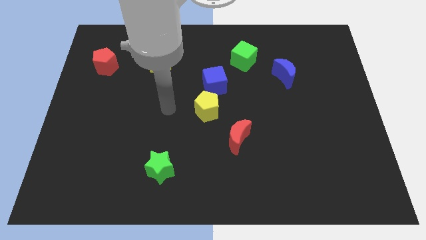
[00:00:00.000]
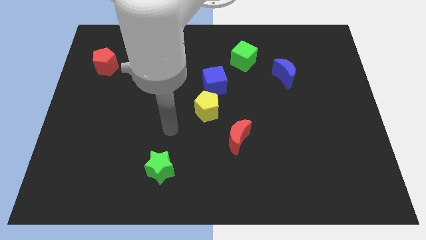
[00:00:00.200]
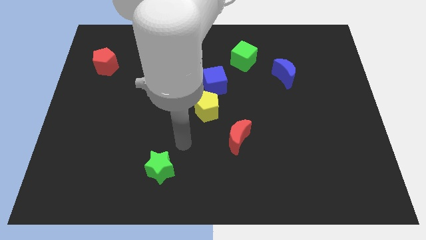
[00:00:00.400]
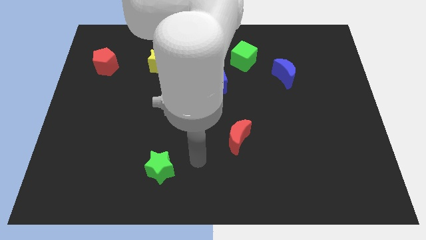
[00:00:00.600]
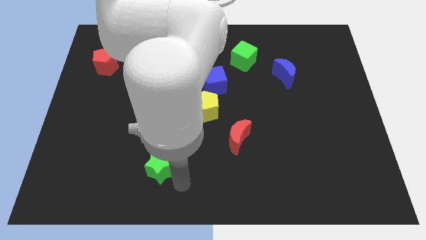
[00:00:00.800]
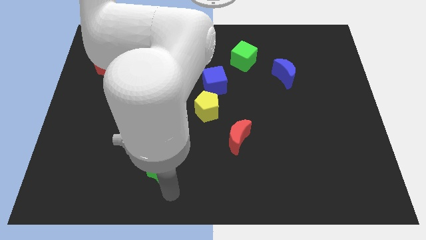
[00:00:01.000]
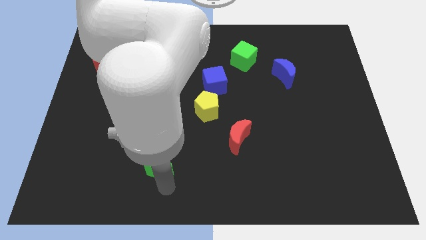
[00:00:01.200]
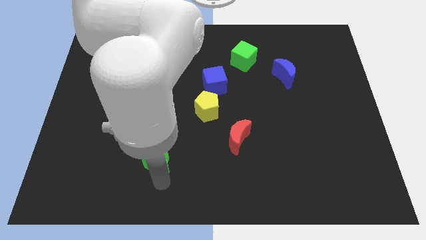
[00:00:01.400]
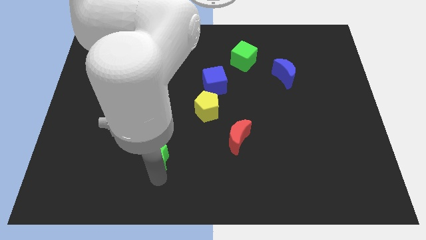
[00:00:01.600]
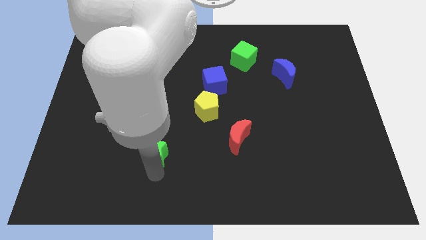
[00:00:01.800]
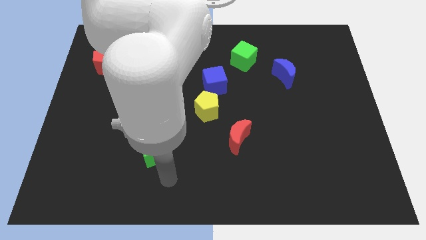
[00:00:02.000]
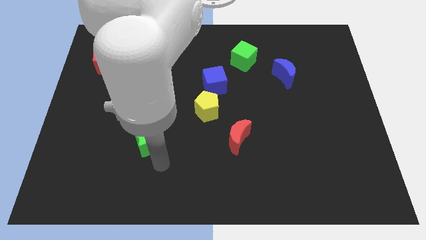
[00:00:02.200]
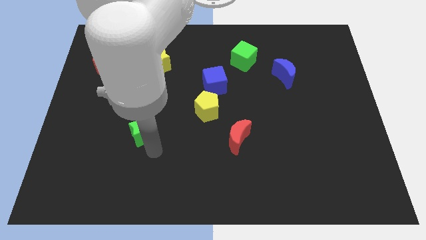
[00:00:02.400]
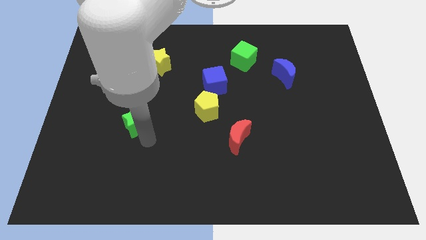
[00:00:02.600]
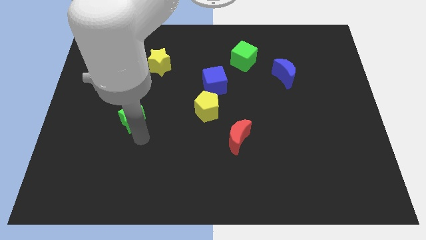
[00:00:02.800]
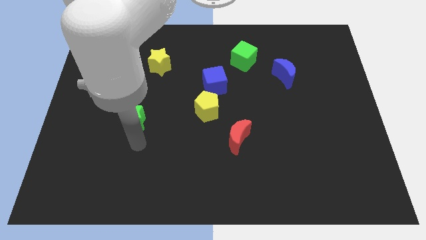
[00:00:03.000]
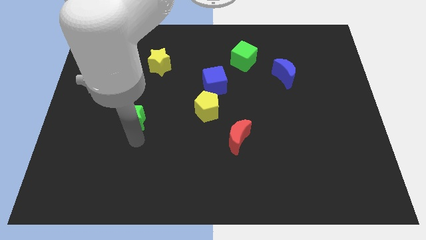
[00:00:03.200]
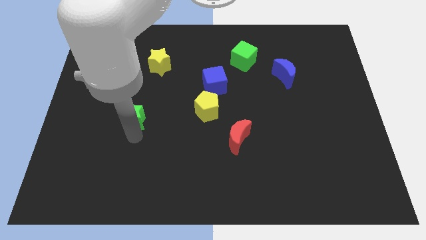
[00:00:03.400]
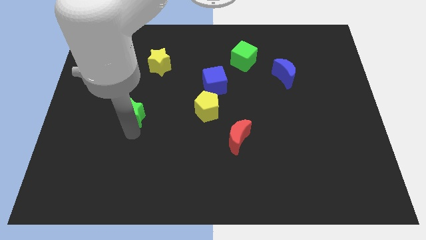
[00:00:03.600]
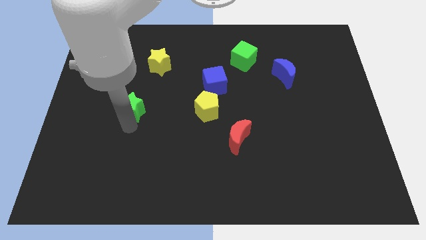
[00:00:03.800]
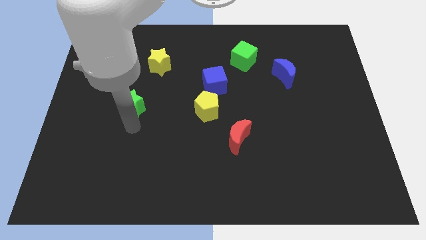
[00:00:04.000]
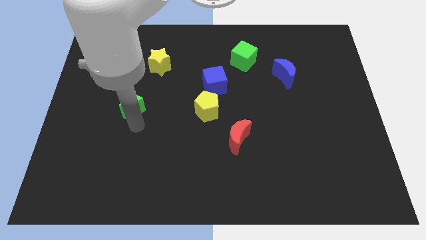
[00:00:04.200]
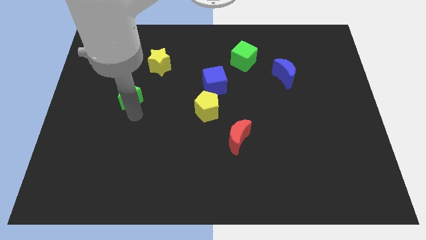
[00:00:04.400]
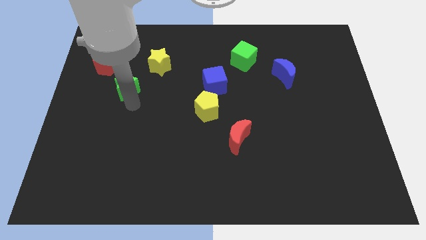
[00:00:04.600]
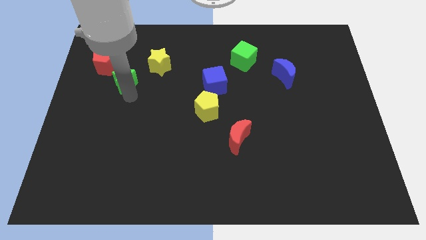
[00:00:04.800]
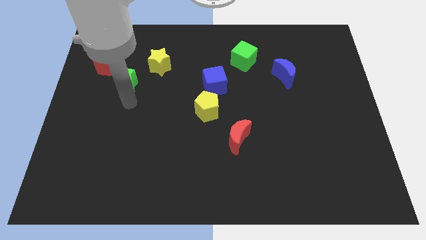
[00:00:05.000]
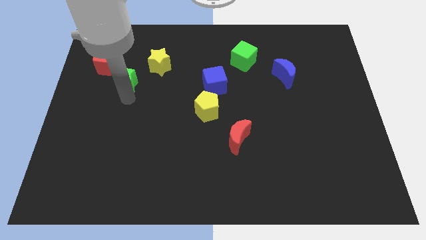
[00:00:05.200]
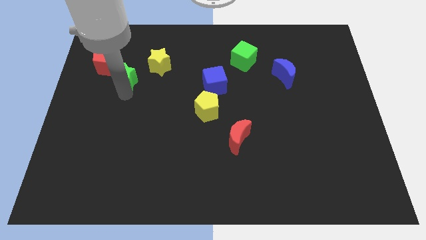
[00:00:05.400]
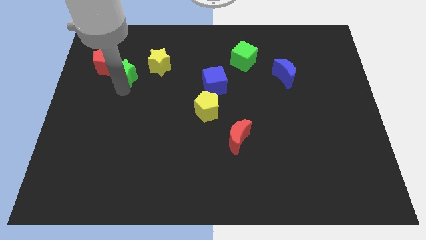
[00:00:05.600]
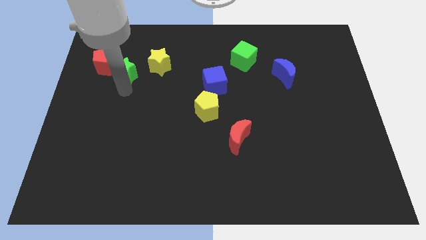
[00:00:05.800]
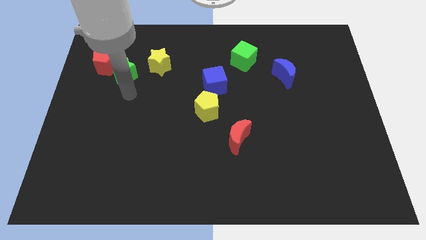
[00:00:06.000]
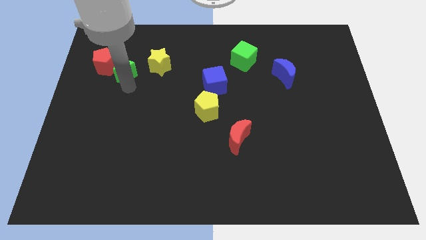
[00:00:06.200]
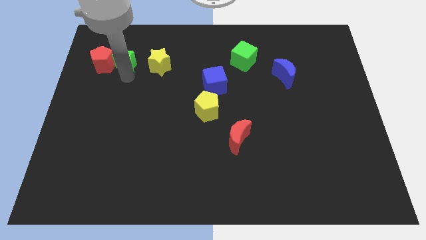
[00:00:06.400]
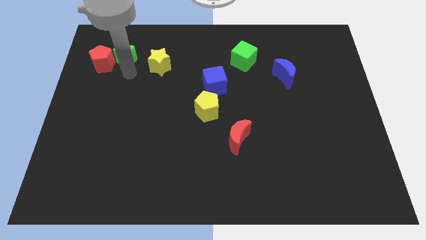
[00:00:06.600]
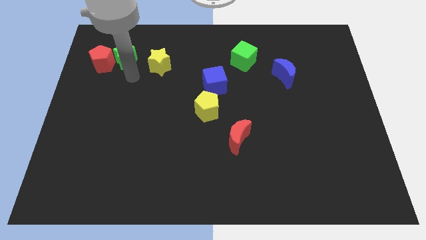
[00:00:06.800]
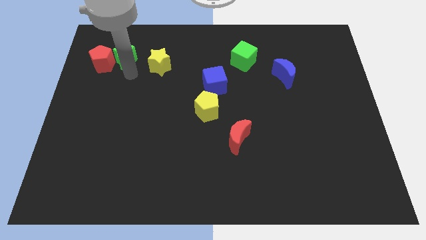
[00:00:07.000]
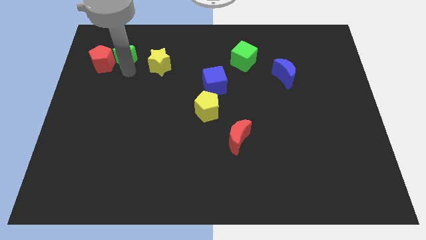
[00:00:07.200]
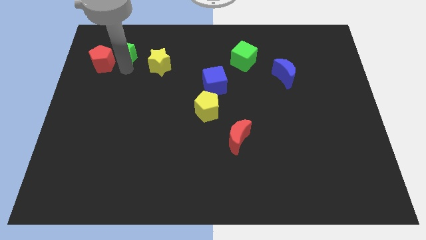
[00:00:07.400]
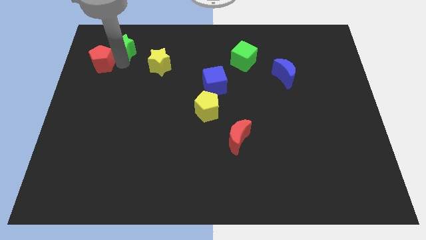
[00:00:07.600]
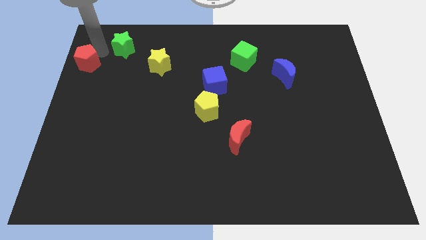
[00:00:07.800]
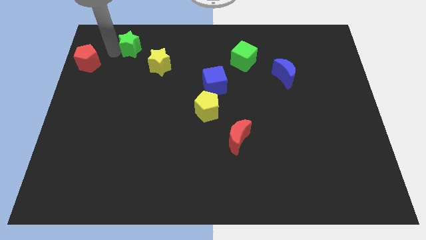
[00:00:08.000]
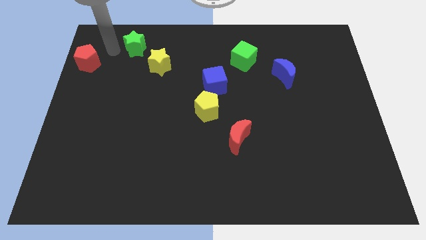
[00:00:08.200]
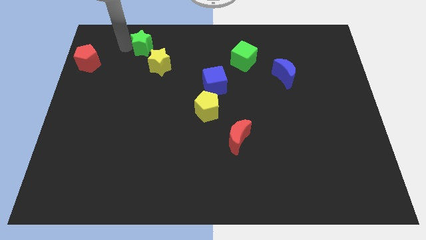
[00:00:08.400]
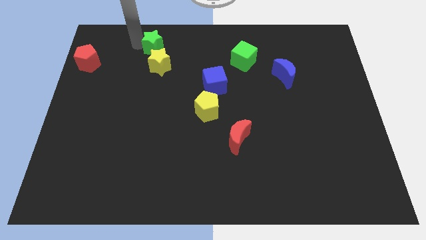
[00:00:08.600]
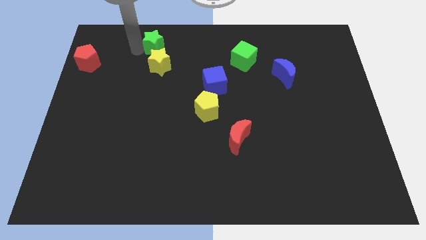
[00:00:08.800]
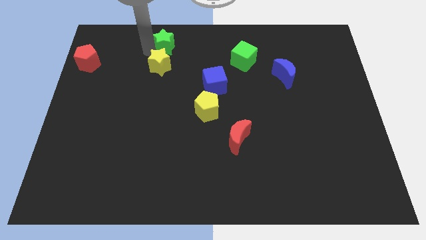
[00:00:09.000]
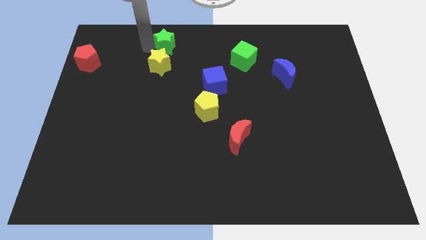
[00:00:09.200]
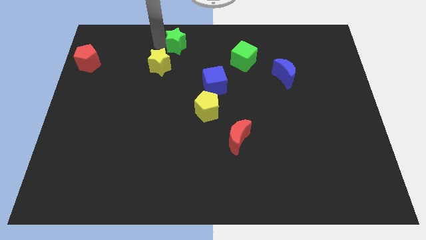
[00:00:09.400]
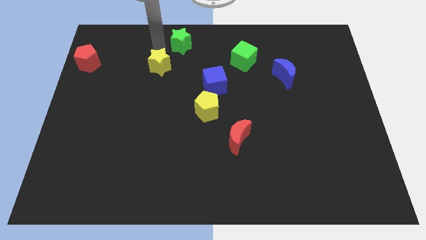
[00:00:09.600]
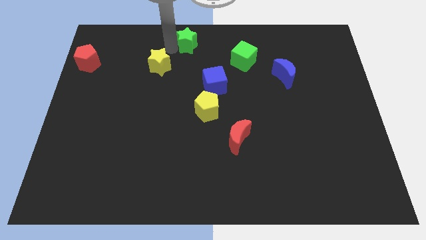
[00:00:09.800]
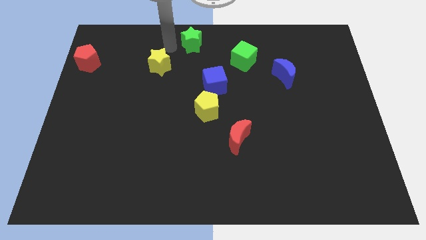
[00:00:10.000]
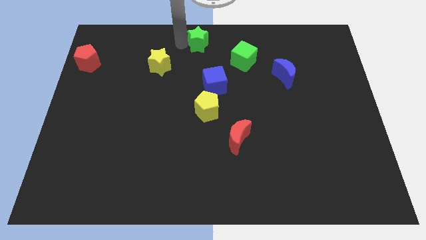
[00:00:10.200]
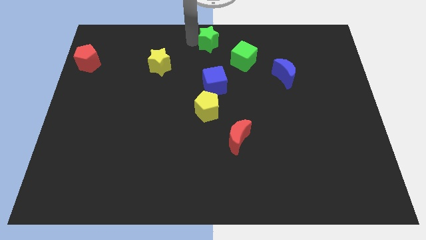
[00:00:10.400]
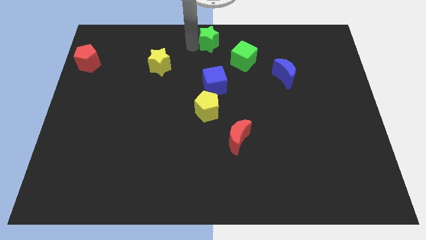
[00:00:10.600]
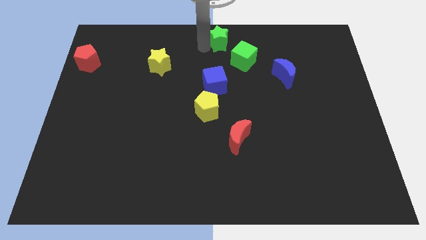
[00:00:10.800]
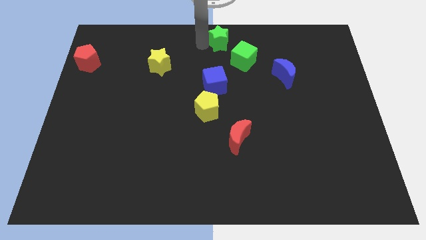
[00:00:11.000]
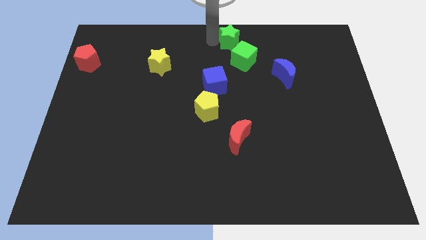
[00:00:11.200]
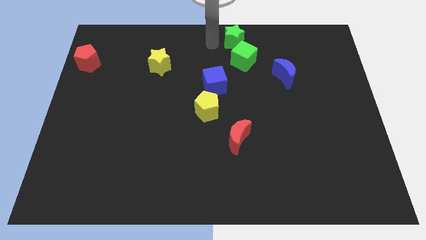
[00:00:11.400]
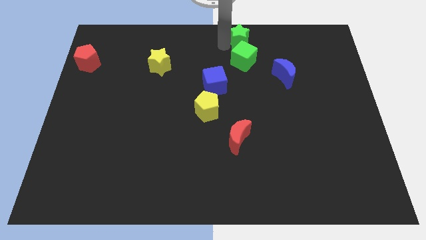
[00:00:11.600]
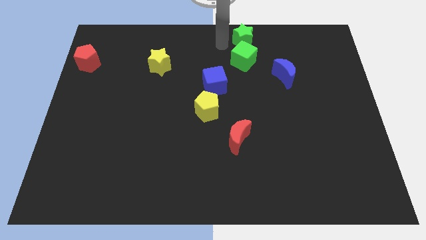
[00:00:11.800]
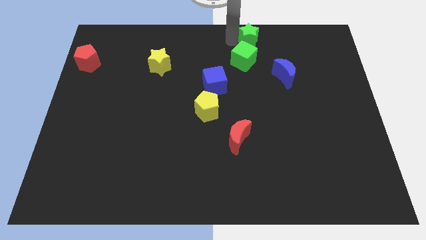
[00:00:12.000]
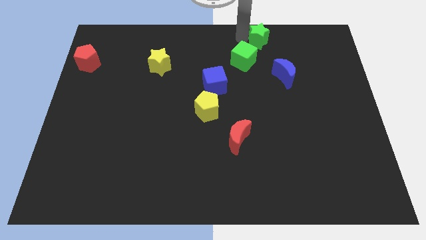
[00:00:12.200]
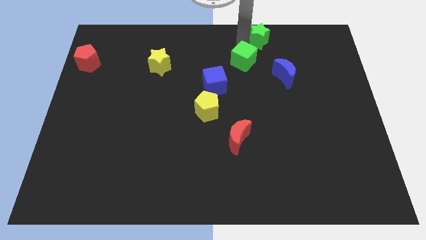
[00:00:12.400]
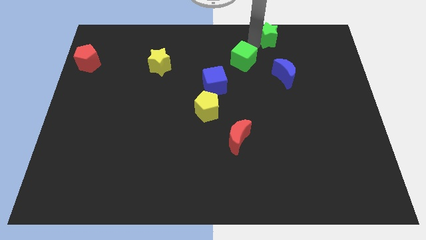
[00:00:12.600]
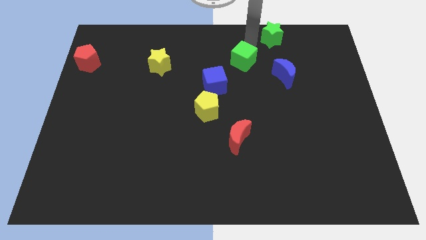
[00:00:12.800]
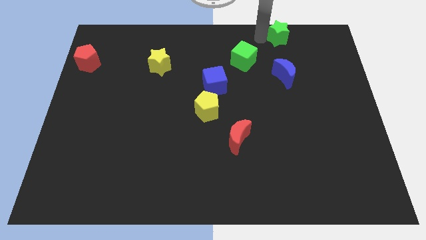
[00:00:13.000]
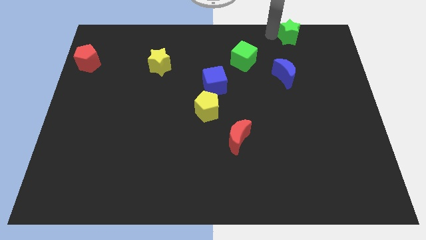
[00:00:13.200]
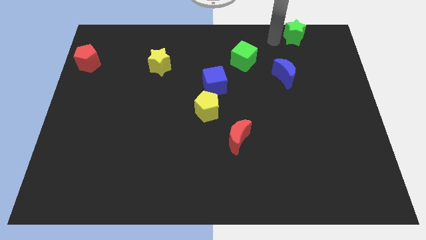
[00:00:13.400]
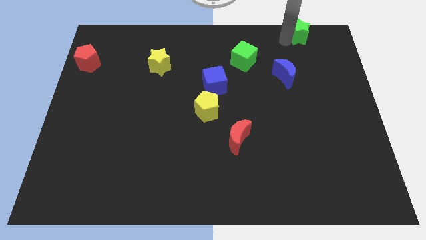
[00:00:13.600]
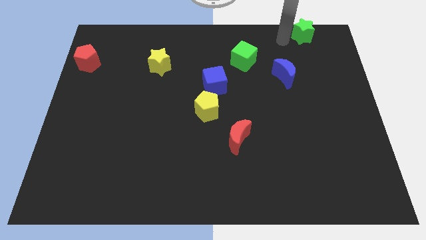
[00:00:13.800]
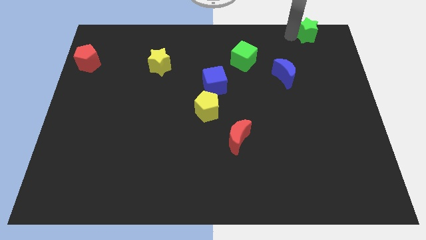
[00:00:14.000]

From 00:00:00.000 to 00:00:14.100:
move the green star to the top right of the board
